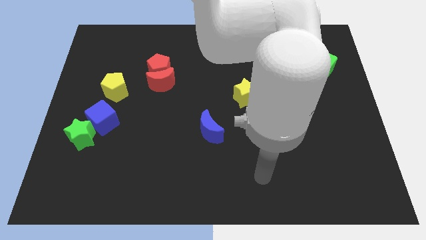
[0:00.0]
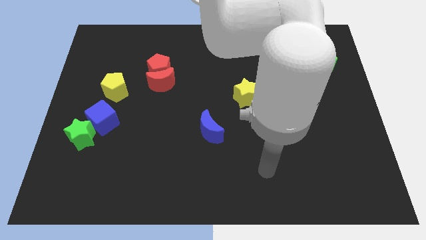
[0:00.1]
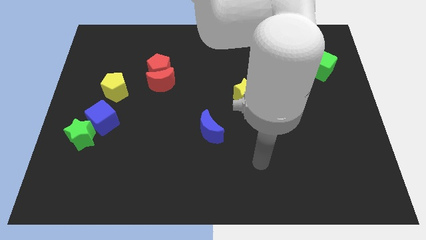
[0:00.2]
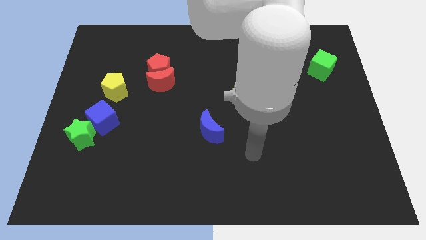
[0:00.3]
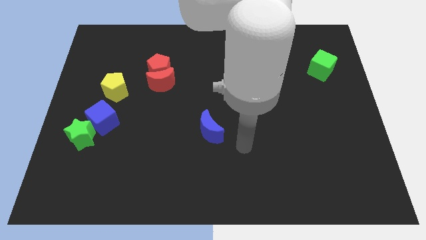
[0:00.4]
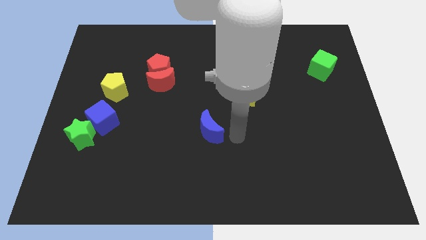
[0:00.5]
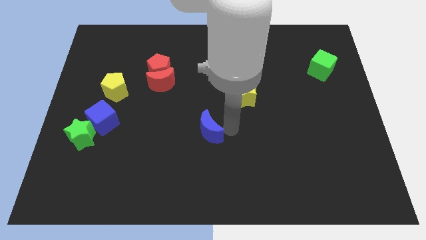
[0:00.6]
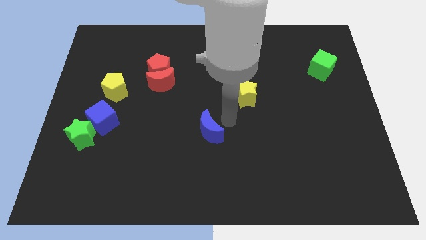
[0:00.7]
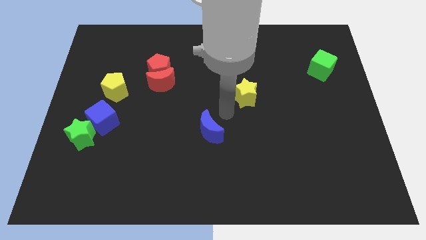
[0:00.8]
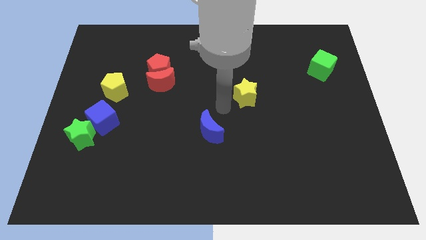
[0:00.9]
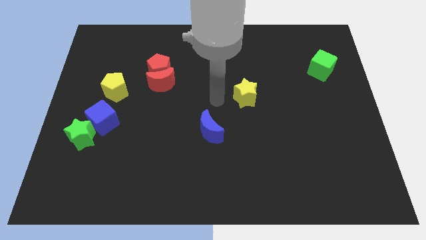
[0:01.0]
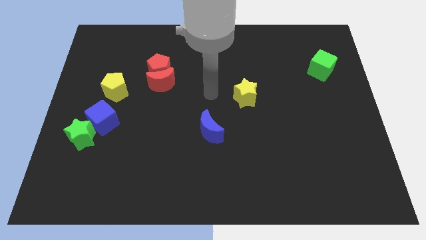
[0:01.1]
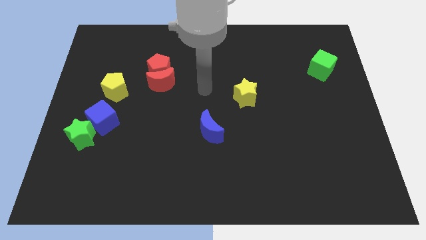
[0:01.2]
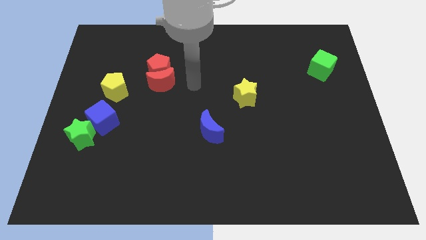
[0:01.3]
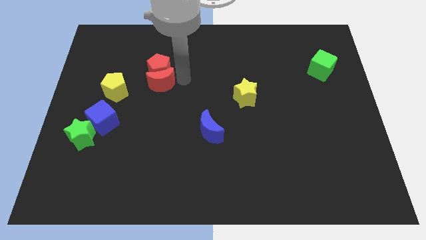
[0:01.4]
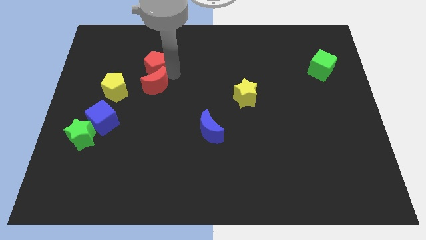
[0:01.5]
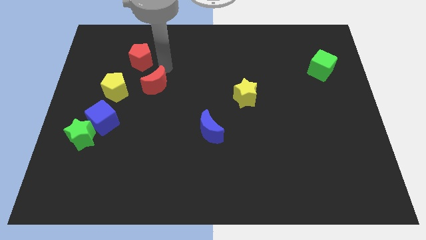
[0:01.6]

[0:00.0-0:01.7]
move the red moon away from the red pentagon

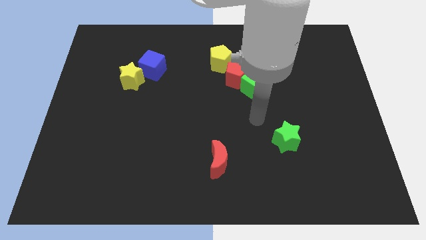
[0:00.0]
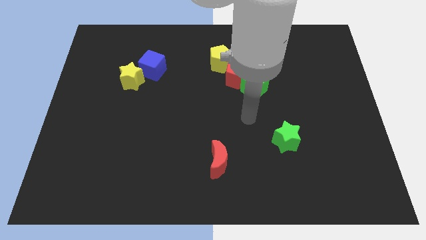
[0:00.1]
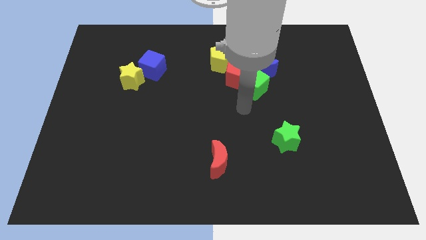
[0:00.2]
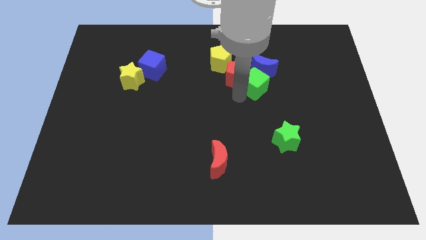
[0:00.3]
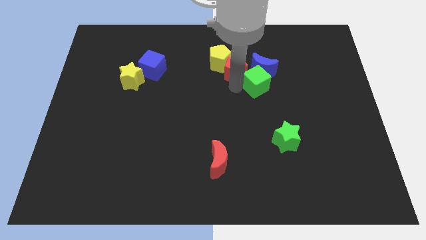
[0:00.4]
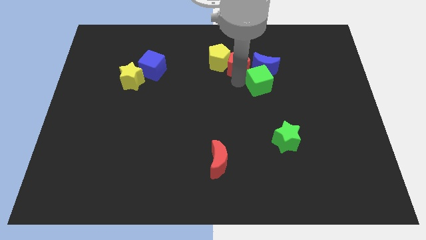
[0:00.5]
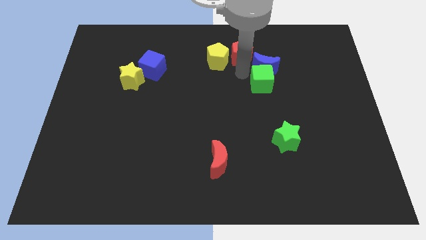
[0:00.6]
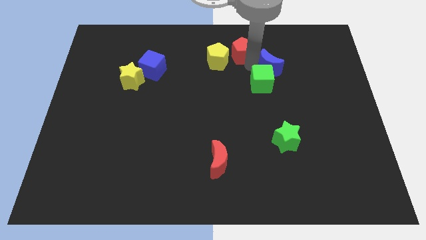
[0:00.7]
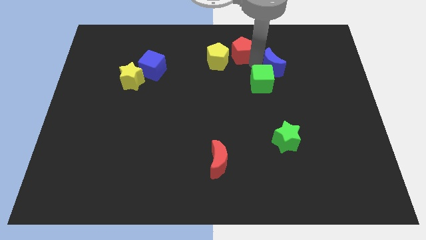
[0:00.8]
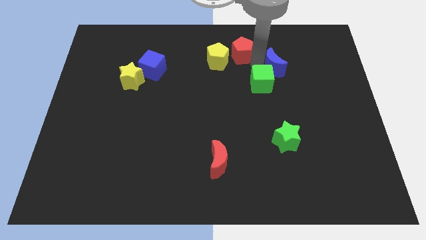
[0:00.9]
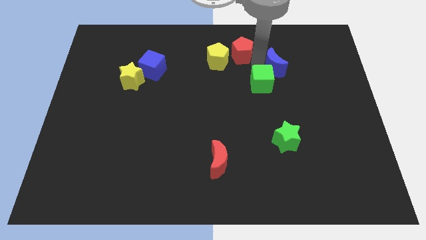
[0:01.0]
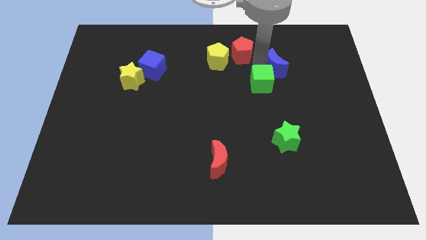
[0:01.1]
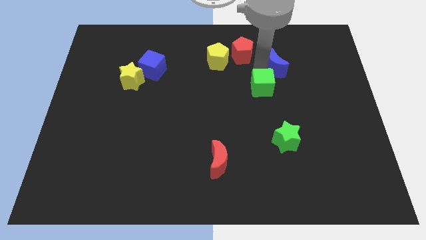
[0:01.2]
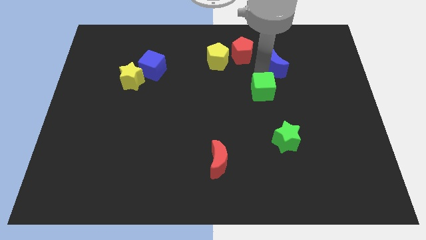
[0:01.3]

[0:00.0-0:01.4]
move the green cube away from the red pentagon and blue moon

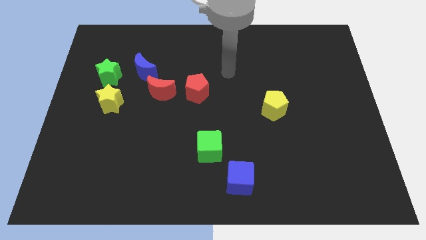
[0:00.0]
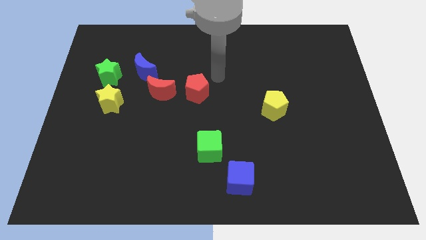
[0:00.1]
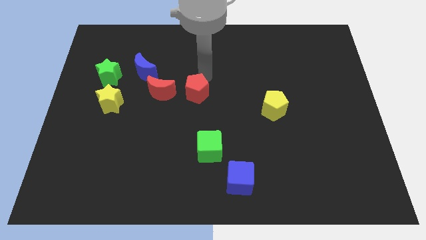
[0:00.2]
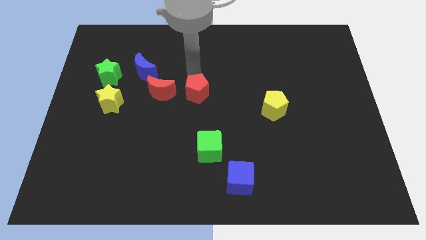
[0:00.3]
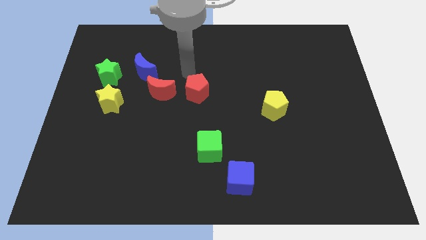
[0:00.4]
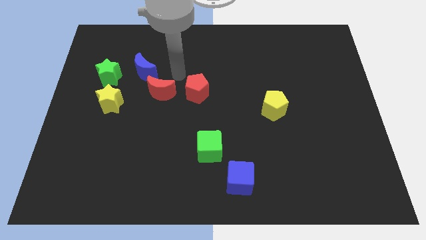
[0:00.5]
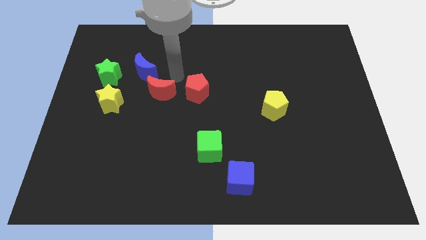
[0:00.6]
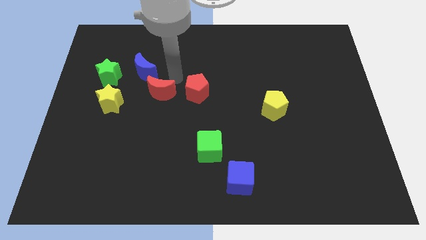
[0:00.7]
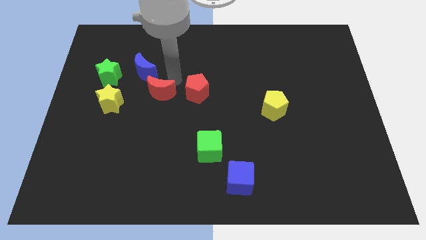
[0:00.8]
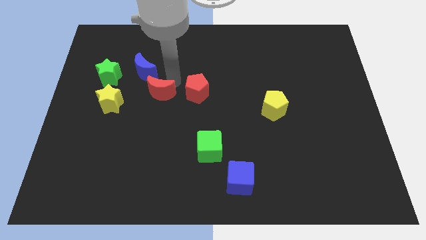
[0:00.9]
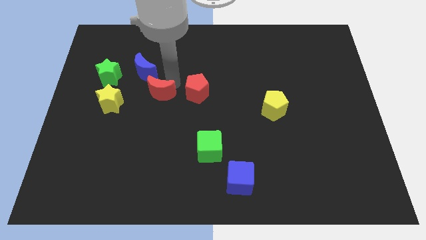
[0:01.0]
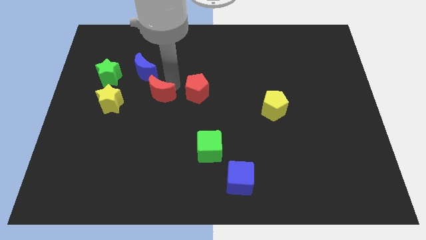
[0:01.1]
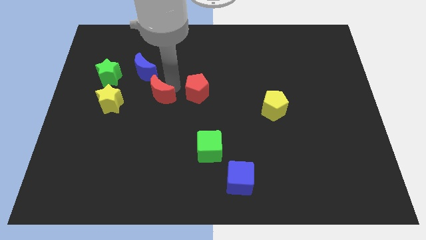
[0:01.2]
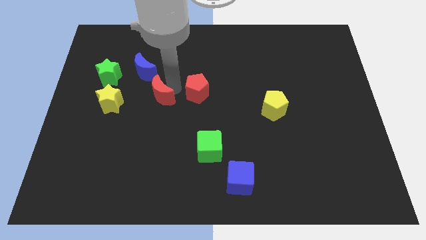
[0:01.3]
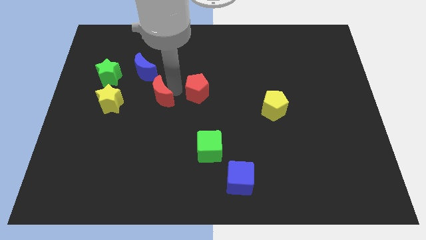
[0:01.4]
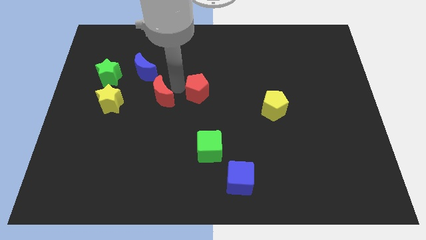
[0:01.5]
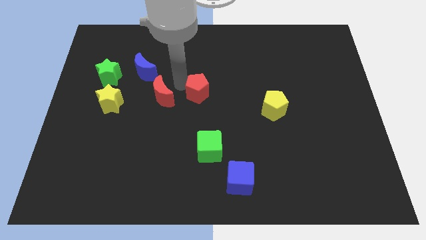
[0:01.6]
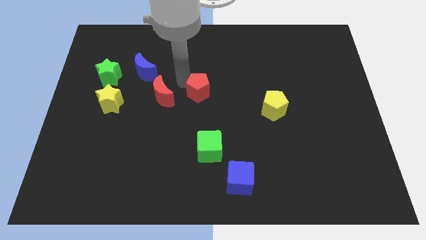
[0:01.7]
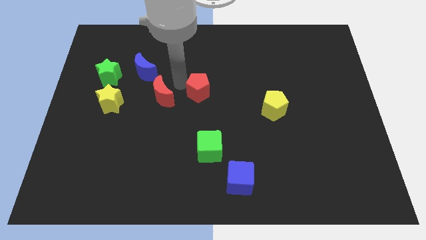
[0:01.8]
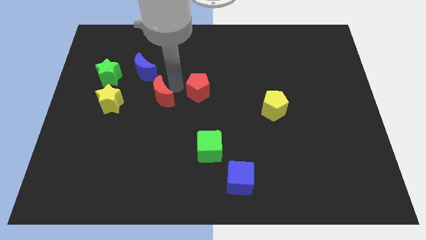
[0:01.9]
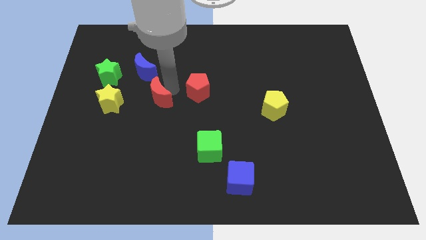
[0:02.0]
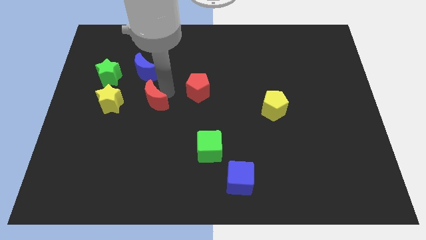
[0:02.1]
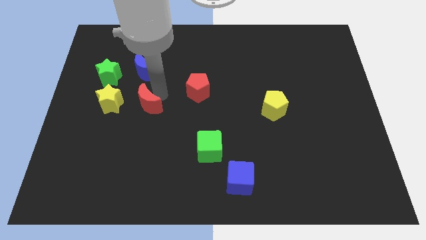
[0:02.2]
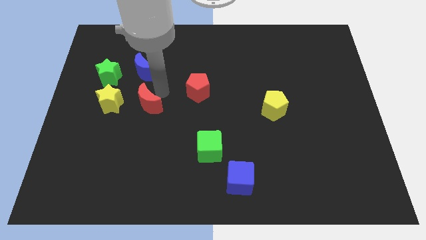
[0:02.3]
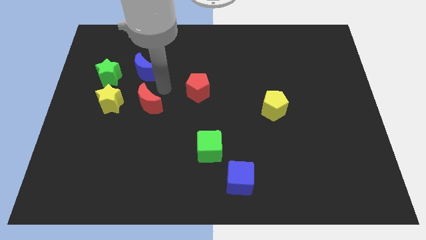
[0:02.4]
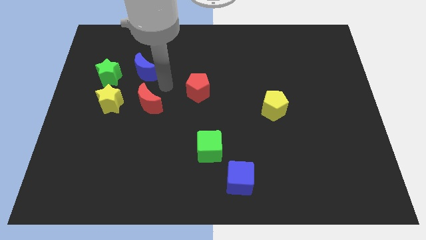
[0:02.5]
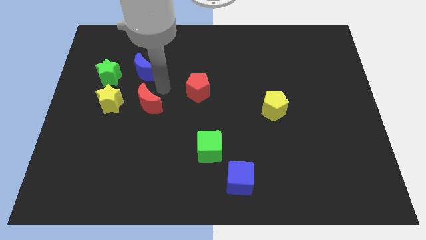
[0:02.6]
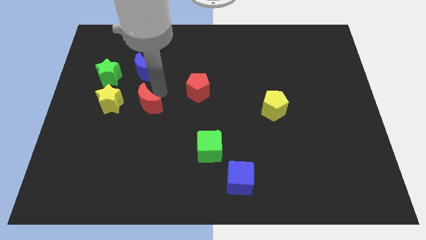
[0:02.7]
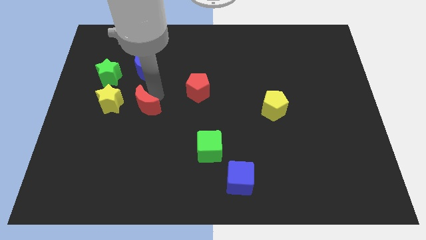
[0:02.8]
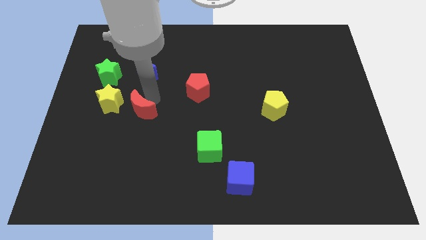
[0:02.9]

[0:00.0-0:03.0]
move the red moon away from the blue moon and red pentagon

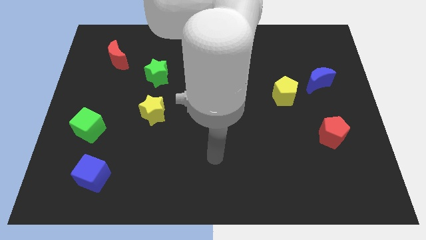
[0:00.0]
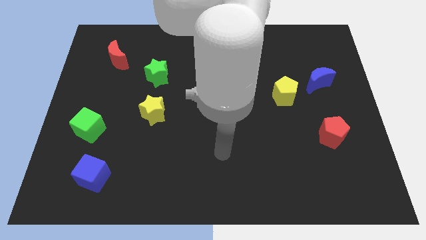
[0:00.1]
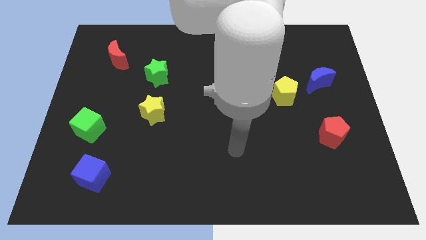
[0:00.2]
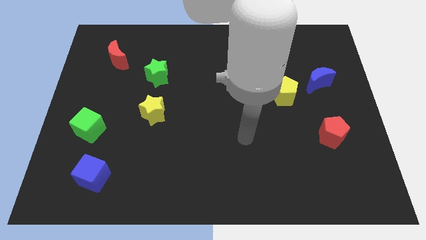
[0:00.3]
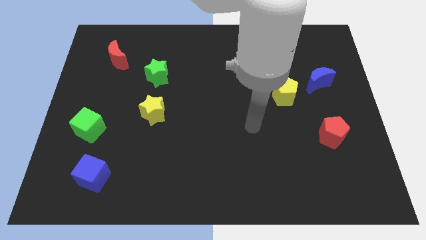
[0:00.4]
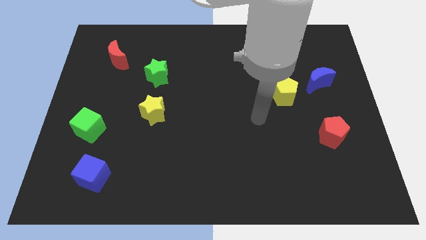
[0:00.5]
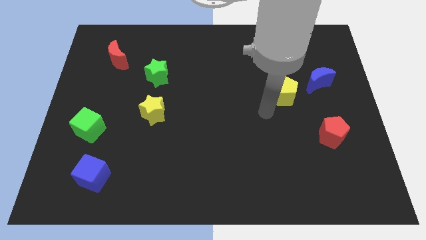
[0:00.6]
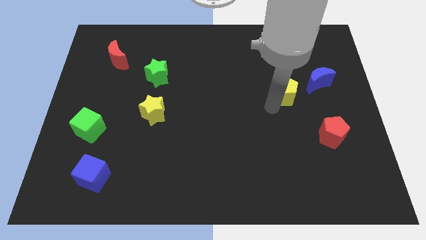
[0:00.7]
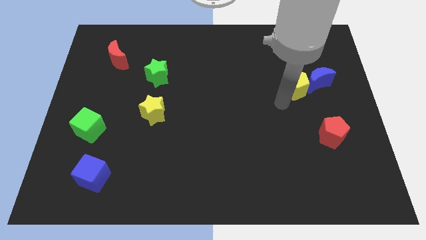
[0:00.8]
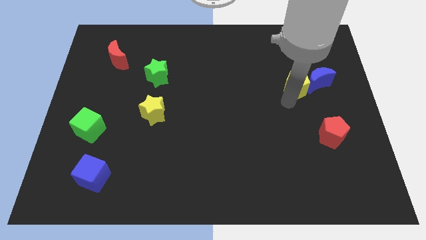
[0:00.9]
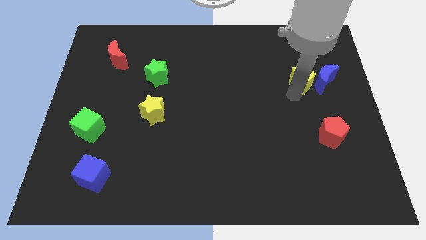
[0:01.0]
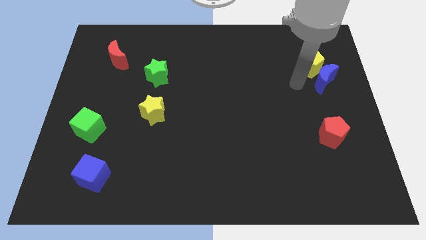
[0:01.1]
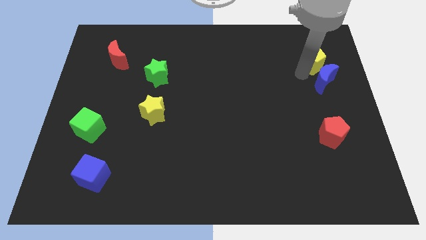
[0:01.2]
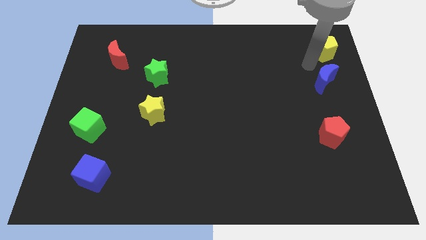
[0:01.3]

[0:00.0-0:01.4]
pull the blue moon apart from the yellow pentagon

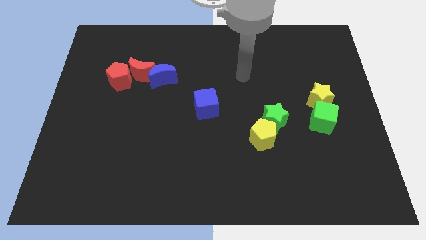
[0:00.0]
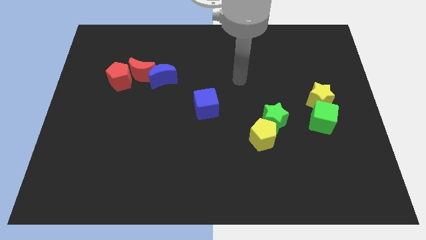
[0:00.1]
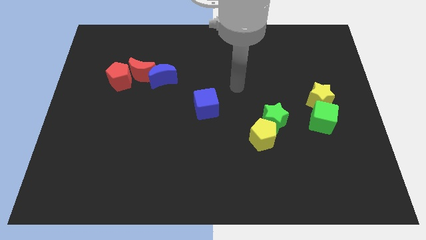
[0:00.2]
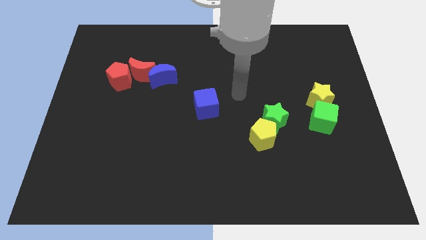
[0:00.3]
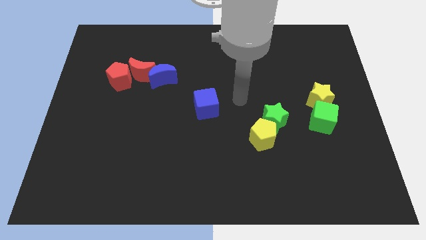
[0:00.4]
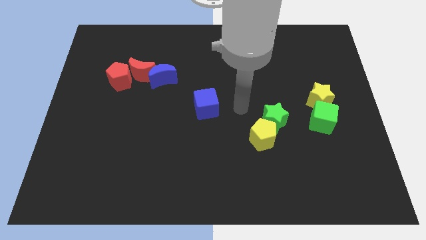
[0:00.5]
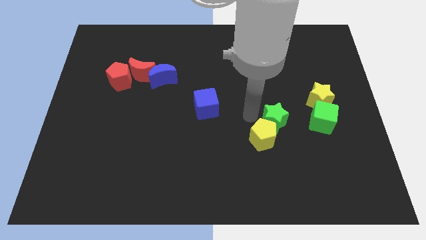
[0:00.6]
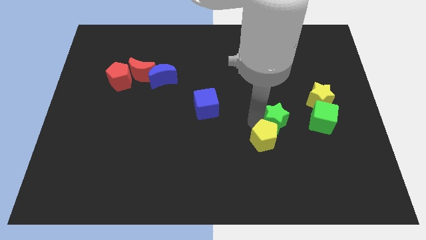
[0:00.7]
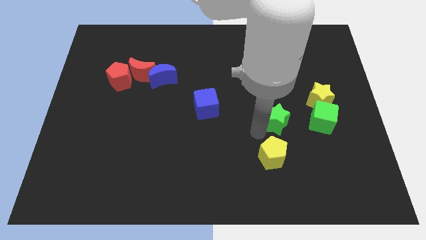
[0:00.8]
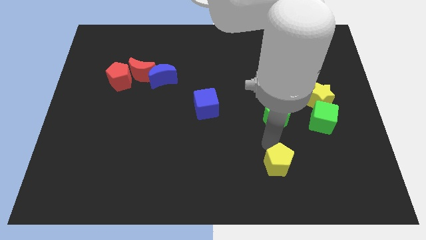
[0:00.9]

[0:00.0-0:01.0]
separate the green star from the yellow pentagon

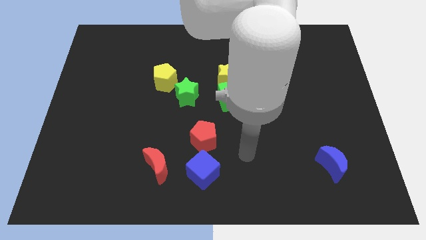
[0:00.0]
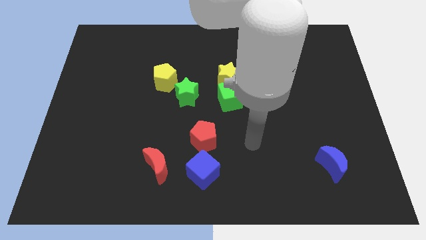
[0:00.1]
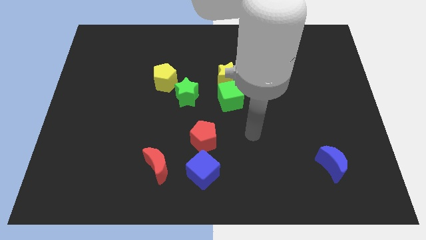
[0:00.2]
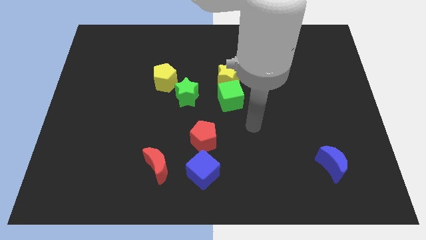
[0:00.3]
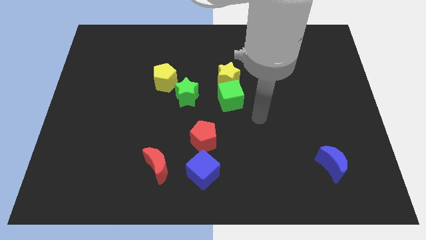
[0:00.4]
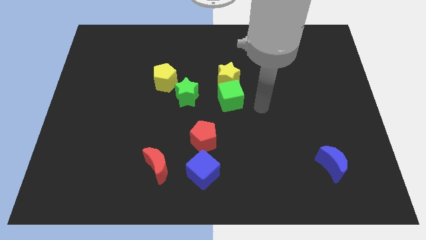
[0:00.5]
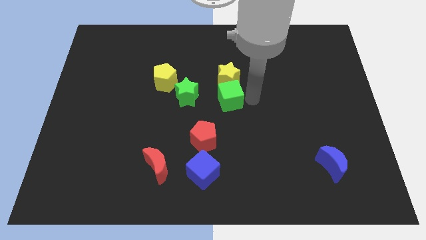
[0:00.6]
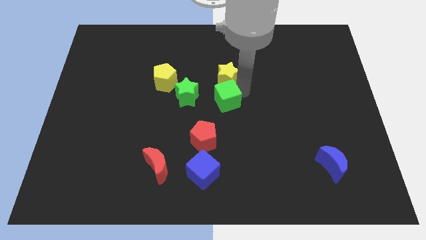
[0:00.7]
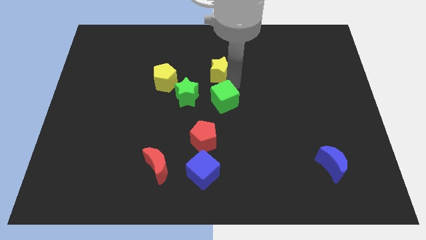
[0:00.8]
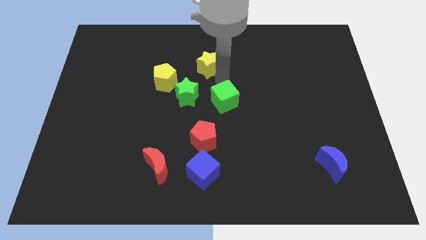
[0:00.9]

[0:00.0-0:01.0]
separate the green cube from the yellow star

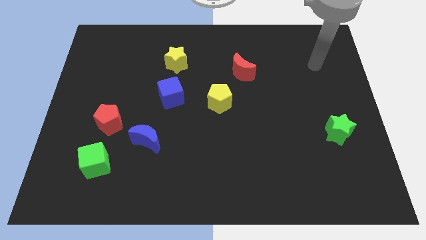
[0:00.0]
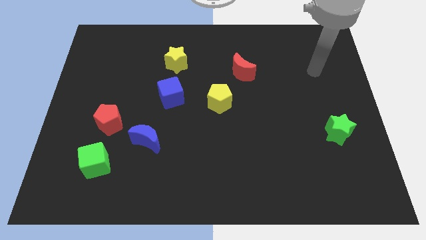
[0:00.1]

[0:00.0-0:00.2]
separate the red pentagon from the blue moon
